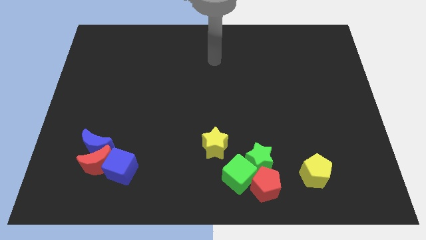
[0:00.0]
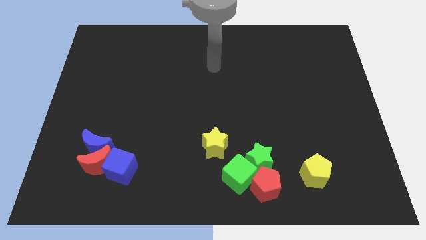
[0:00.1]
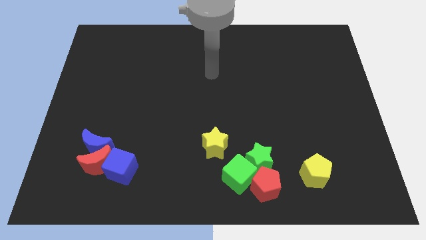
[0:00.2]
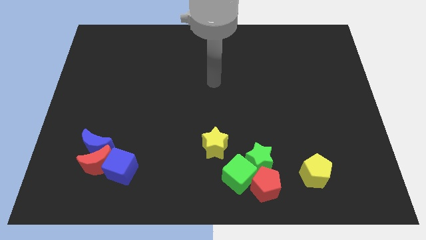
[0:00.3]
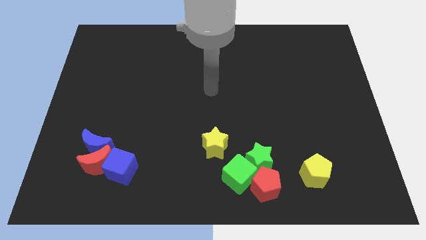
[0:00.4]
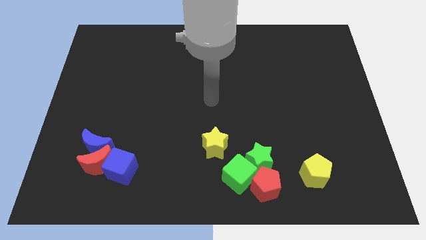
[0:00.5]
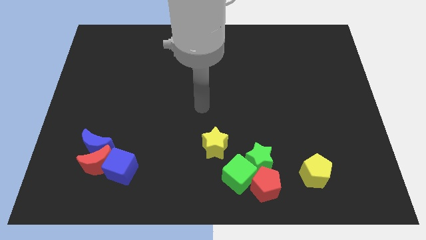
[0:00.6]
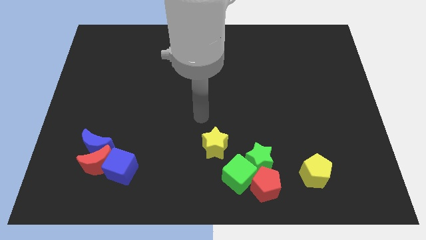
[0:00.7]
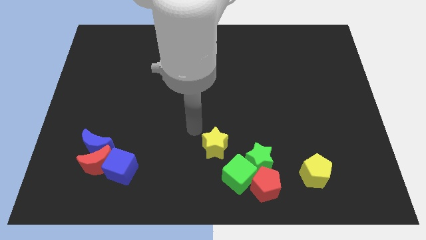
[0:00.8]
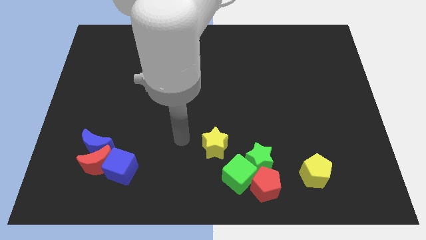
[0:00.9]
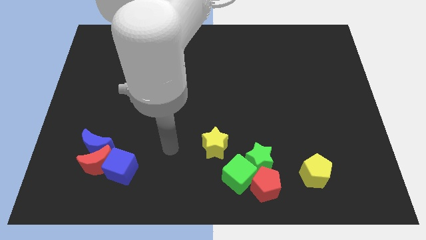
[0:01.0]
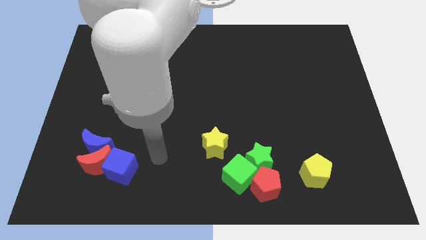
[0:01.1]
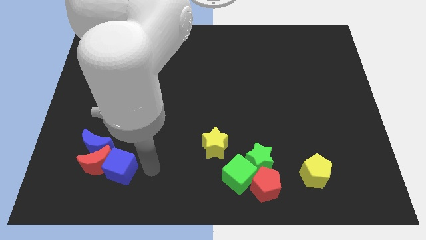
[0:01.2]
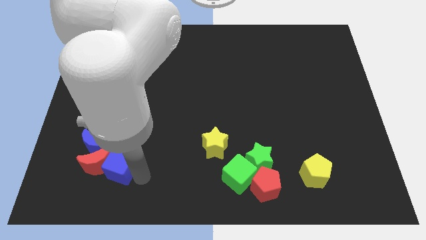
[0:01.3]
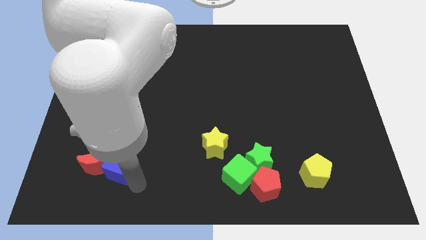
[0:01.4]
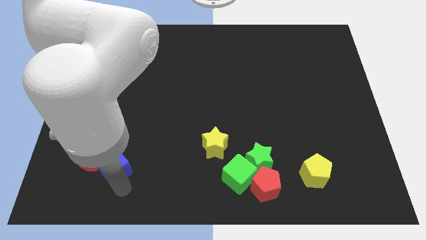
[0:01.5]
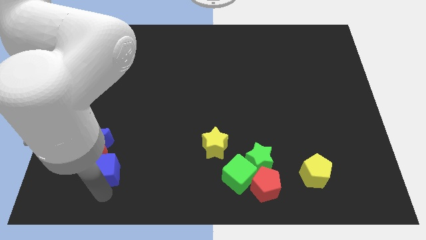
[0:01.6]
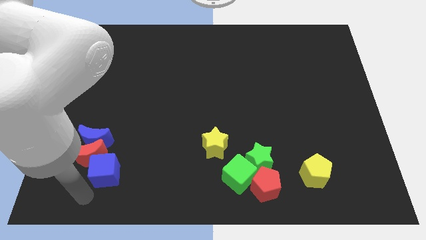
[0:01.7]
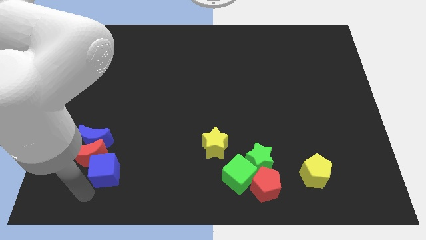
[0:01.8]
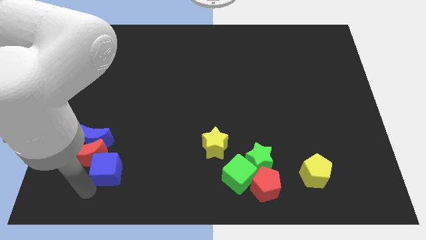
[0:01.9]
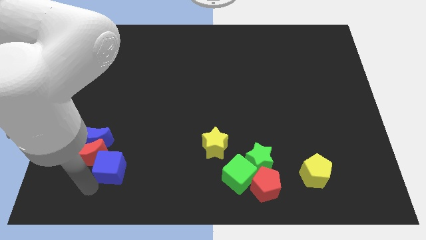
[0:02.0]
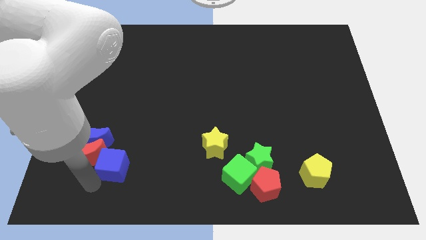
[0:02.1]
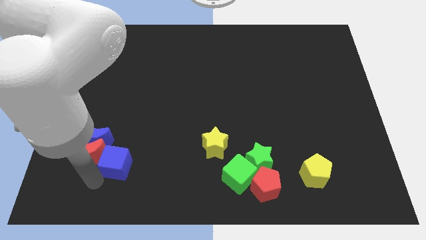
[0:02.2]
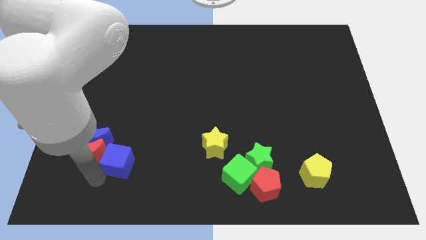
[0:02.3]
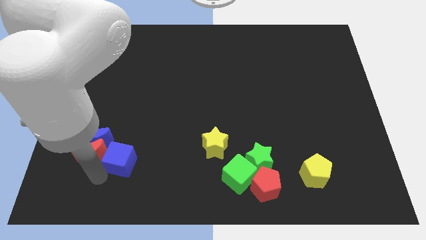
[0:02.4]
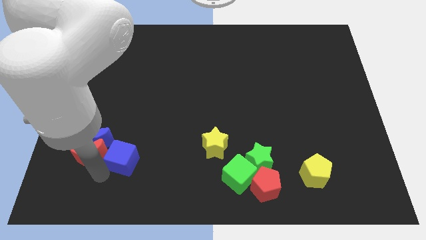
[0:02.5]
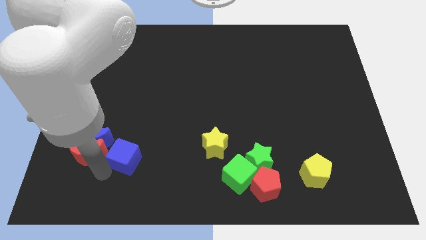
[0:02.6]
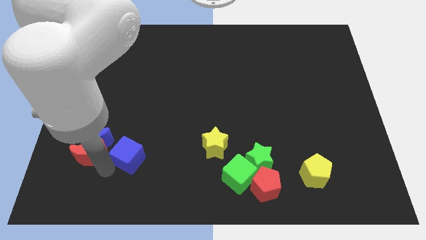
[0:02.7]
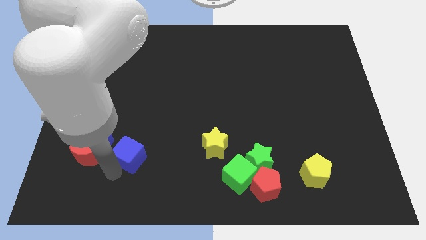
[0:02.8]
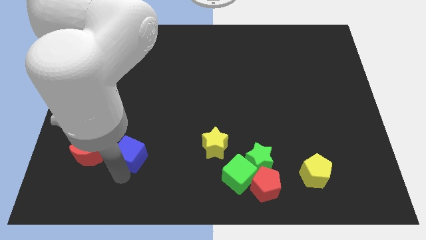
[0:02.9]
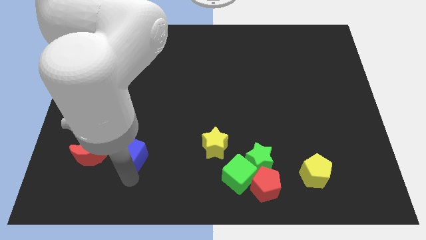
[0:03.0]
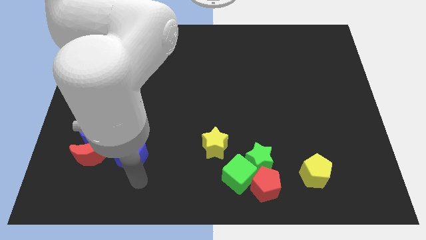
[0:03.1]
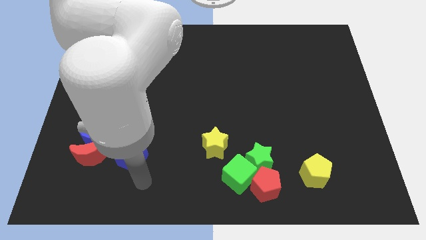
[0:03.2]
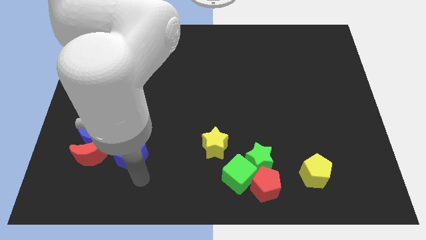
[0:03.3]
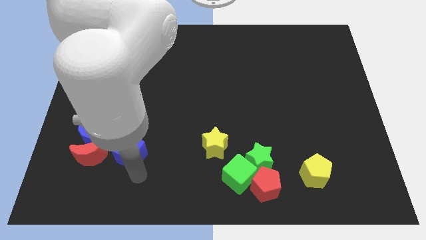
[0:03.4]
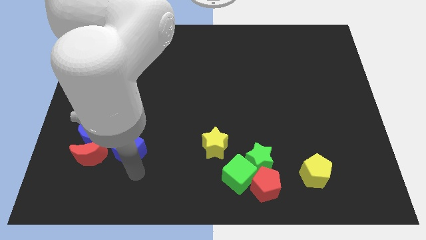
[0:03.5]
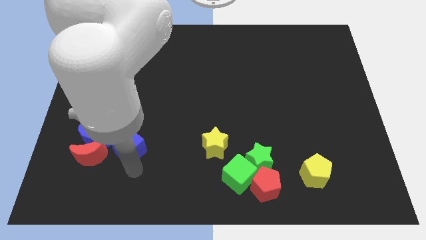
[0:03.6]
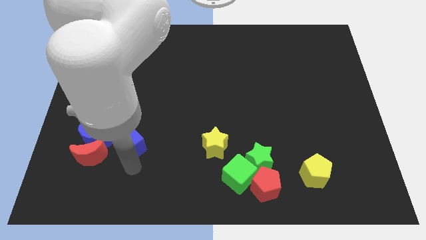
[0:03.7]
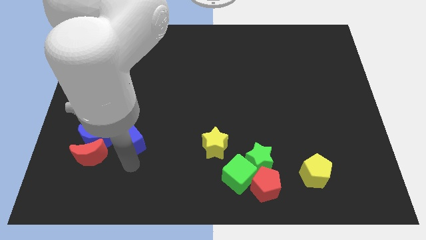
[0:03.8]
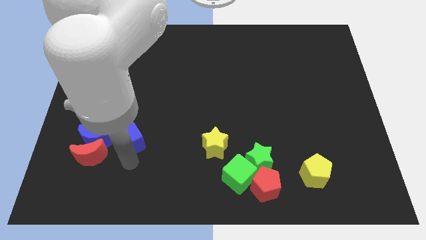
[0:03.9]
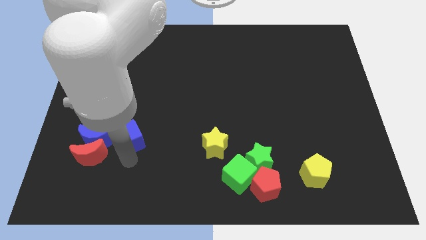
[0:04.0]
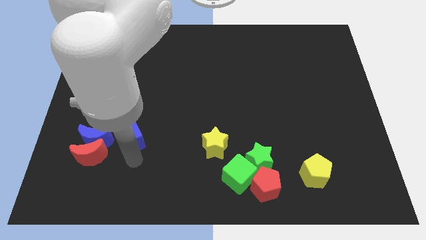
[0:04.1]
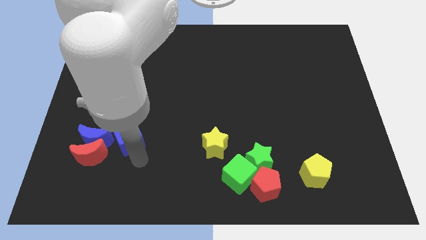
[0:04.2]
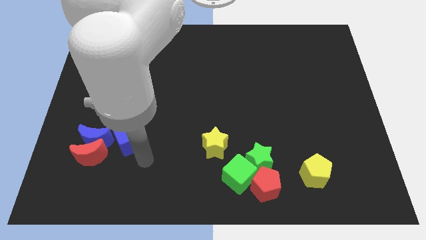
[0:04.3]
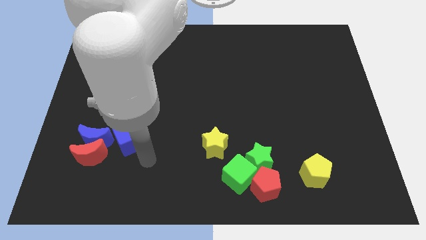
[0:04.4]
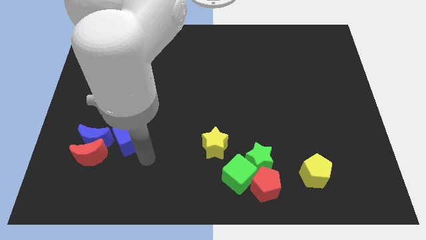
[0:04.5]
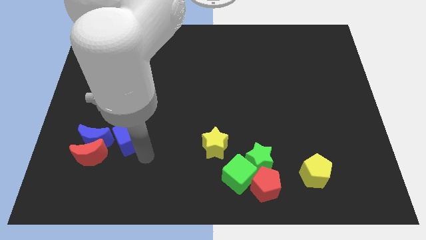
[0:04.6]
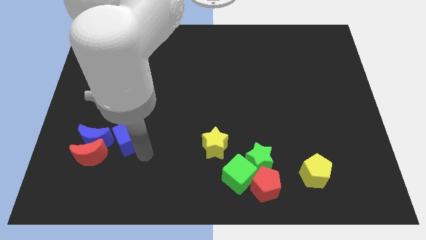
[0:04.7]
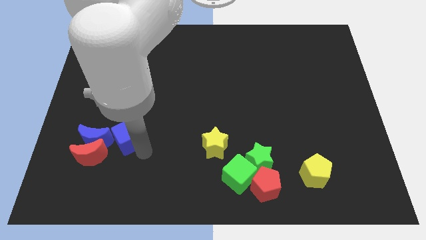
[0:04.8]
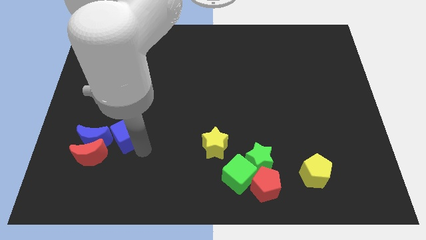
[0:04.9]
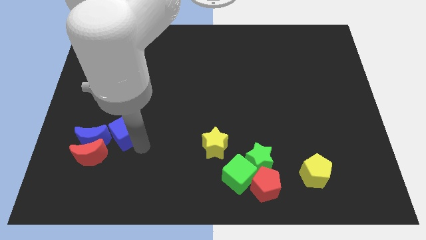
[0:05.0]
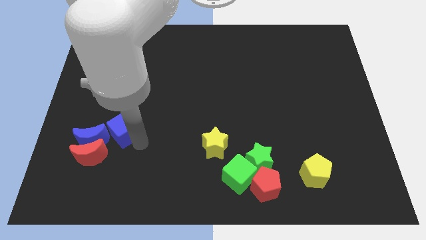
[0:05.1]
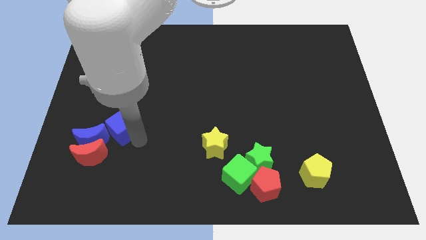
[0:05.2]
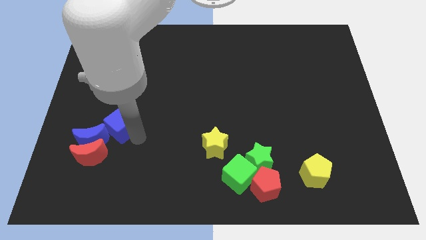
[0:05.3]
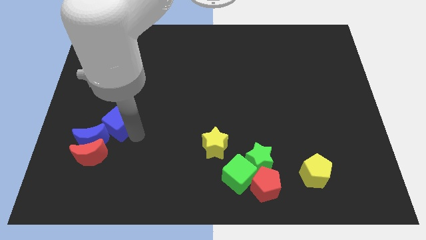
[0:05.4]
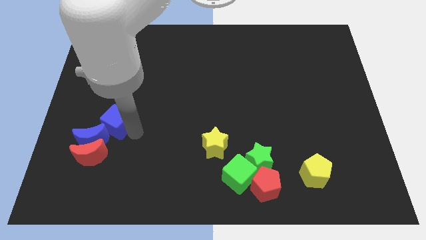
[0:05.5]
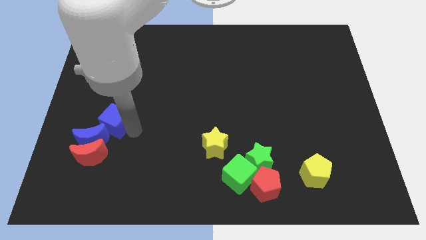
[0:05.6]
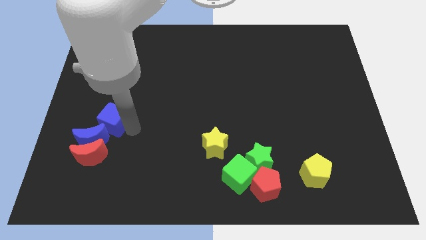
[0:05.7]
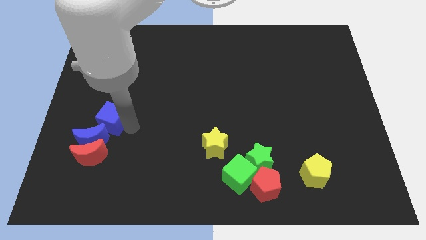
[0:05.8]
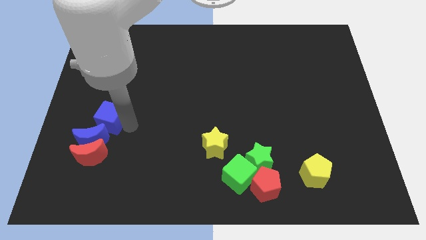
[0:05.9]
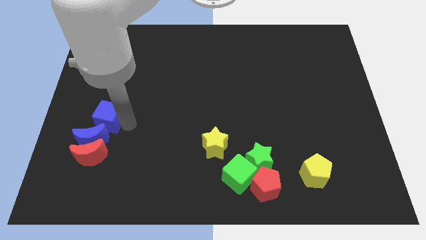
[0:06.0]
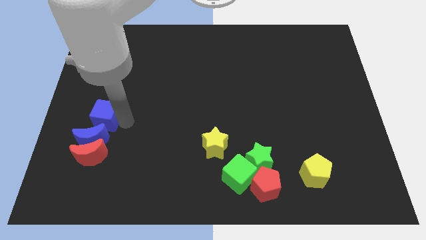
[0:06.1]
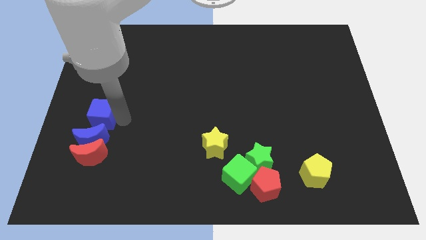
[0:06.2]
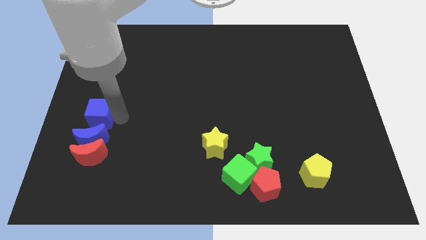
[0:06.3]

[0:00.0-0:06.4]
put the blue cube to the left side of the board

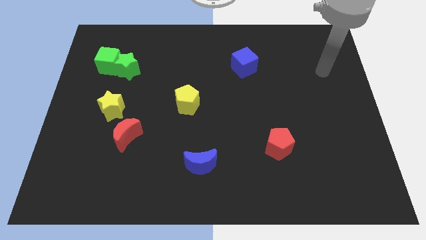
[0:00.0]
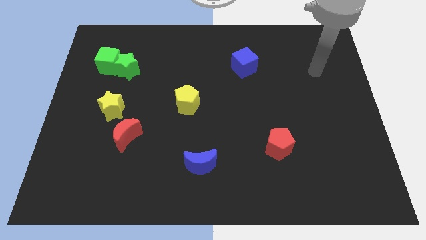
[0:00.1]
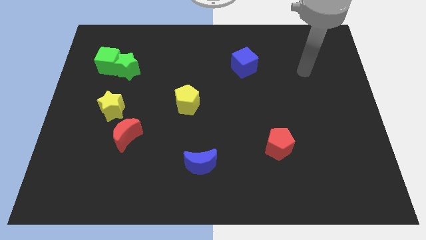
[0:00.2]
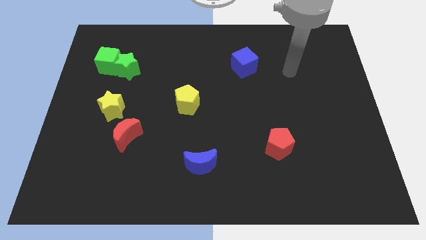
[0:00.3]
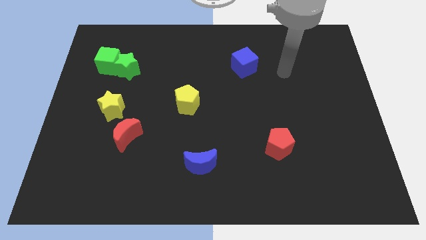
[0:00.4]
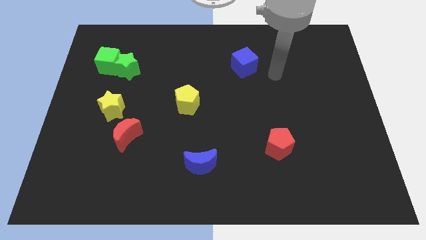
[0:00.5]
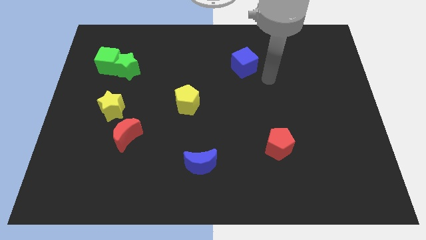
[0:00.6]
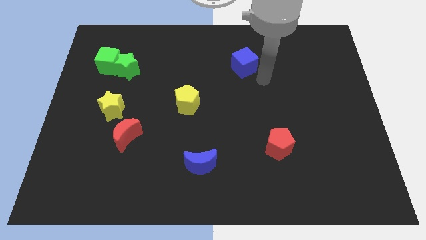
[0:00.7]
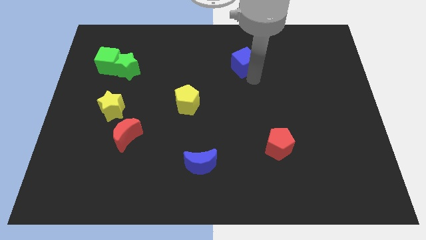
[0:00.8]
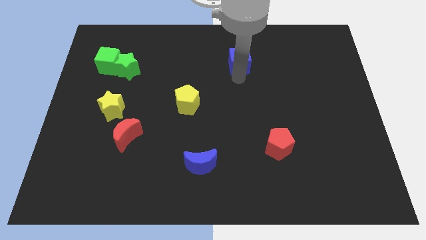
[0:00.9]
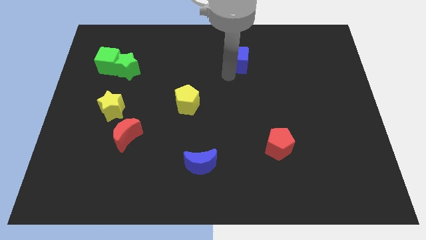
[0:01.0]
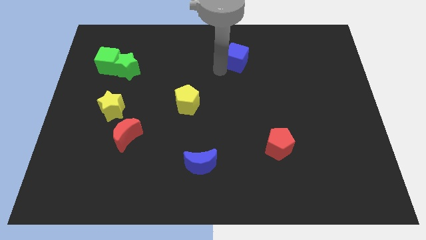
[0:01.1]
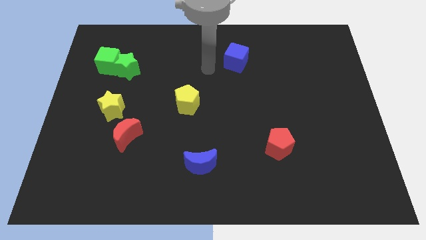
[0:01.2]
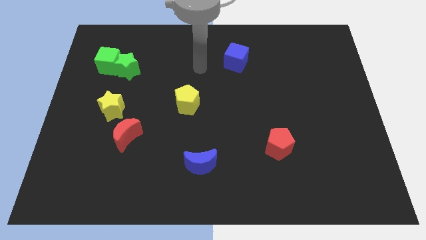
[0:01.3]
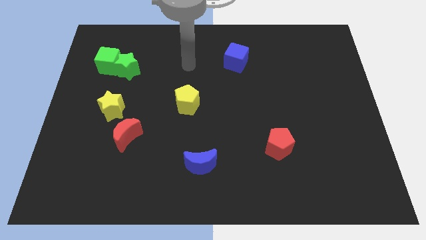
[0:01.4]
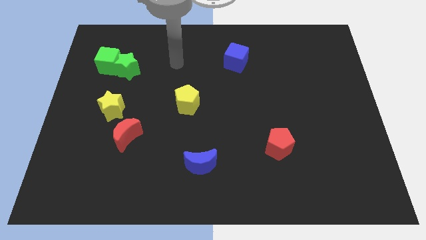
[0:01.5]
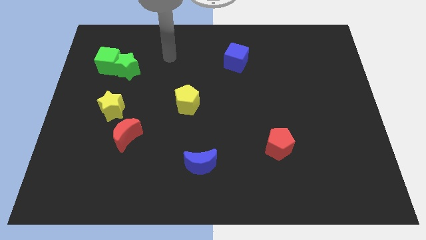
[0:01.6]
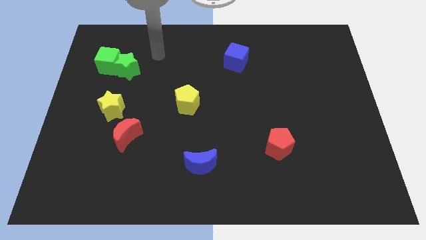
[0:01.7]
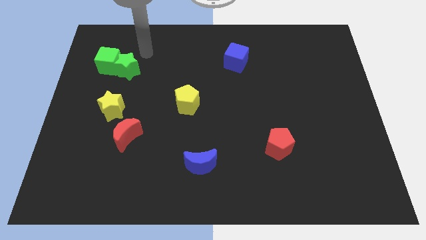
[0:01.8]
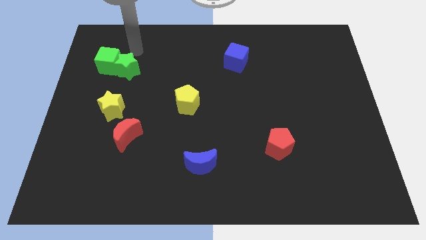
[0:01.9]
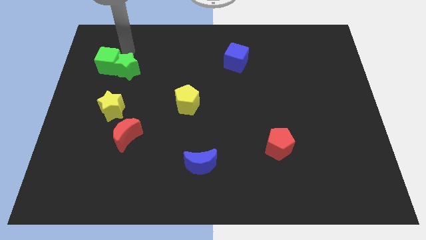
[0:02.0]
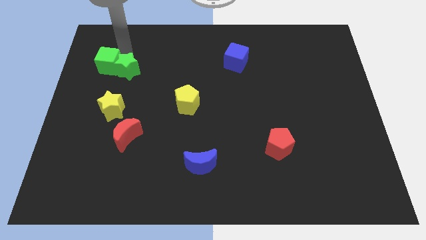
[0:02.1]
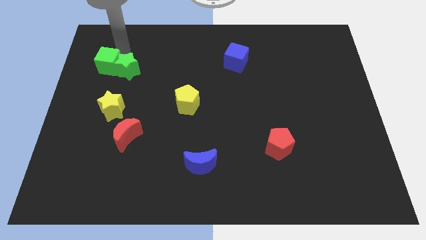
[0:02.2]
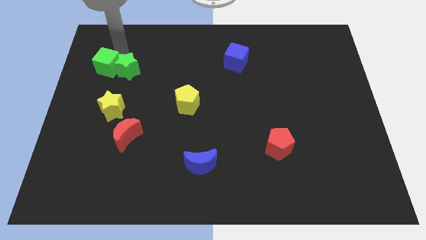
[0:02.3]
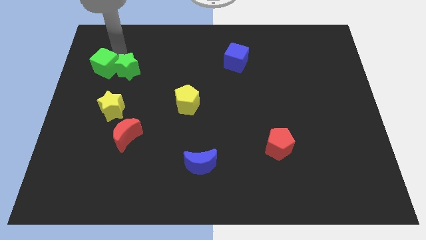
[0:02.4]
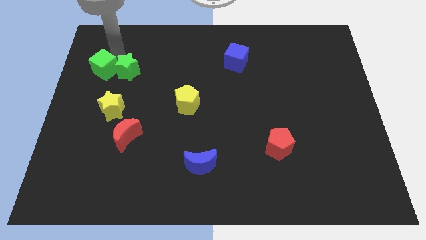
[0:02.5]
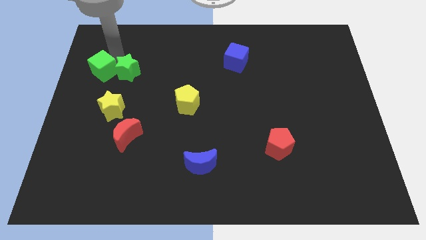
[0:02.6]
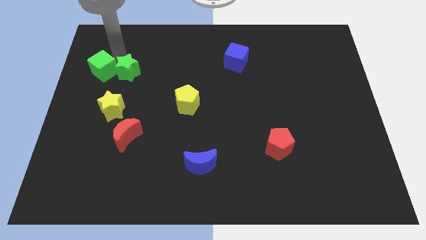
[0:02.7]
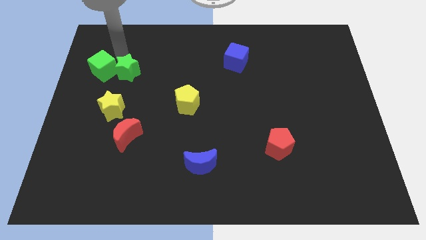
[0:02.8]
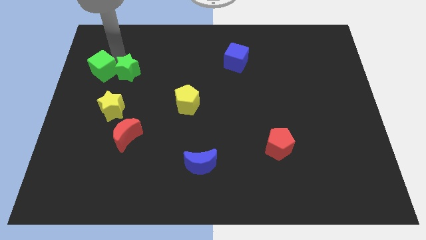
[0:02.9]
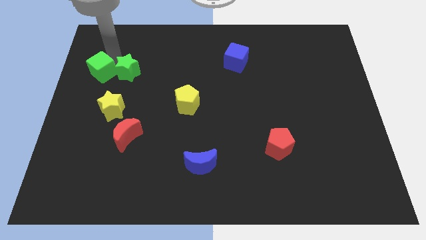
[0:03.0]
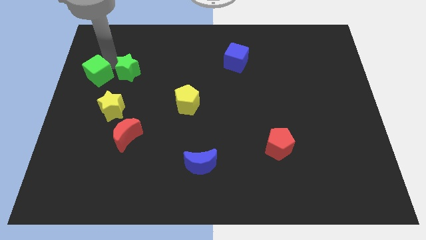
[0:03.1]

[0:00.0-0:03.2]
slide the green cube to the left side of the board
